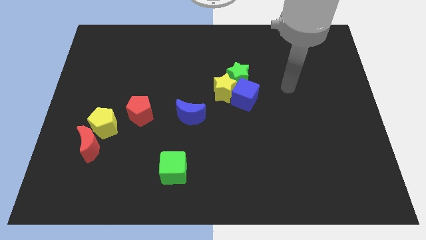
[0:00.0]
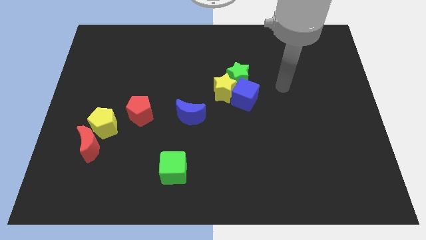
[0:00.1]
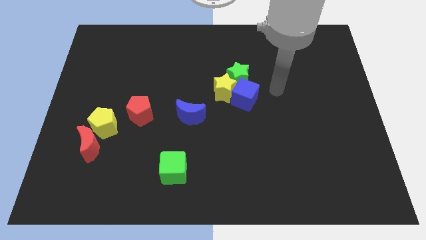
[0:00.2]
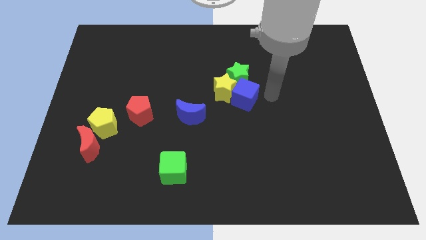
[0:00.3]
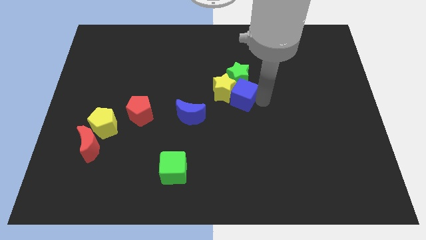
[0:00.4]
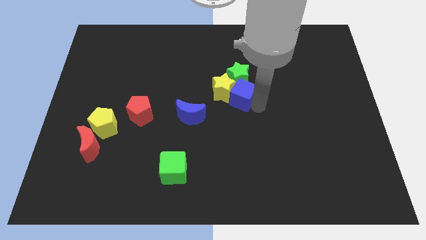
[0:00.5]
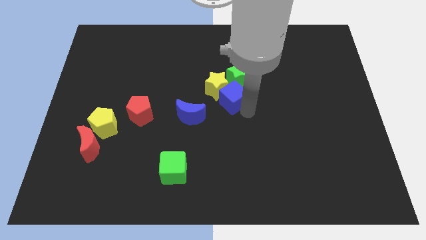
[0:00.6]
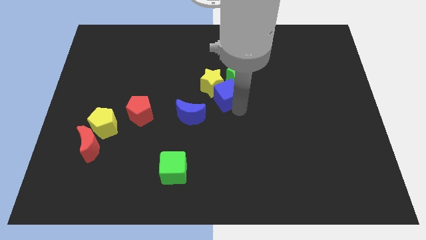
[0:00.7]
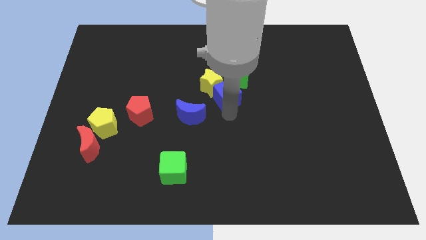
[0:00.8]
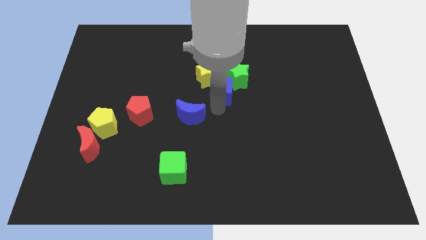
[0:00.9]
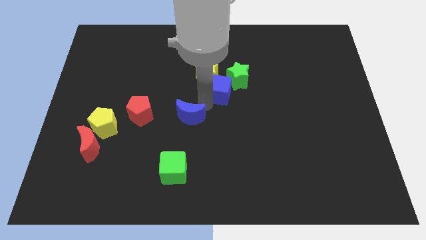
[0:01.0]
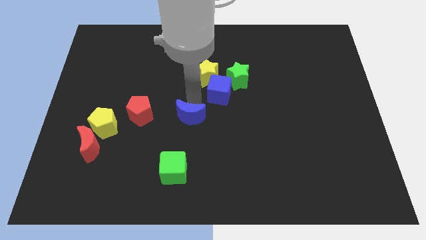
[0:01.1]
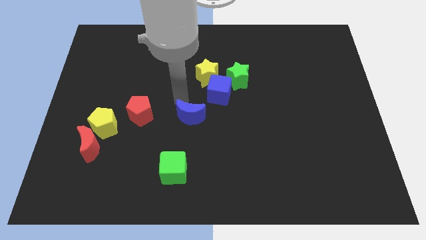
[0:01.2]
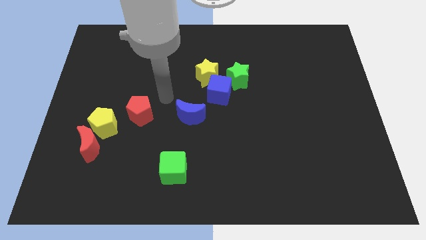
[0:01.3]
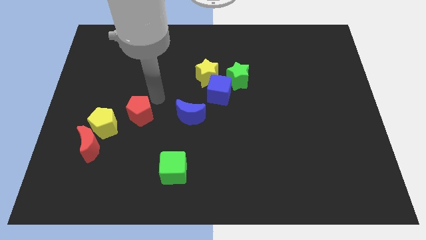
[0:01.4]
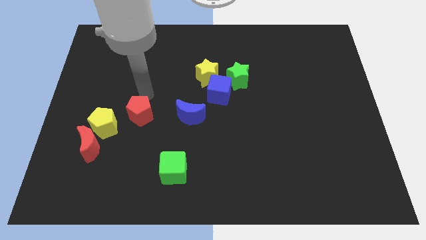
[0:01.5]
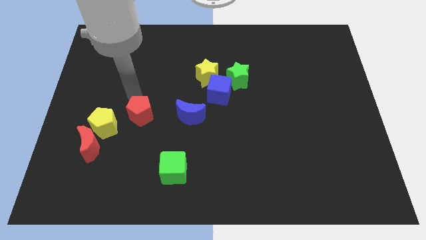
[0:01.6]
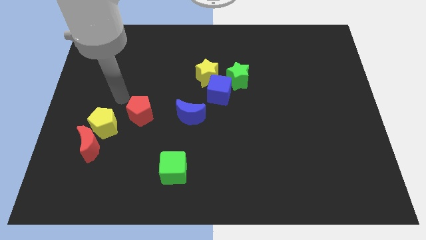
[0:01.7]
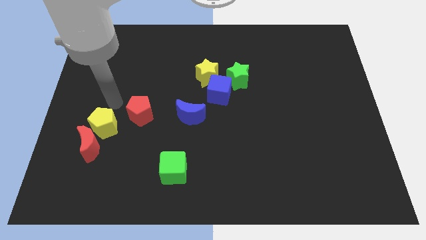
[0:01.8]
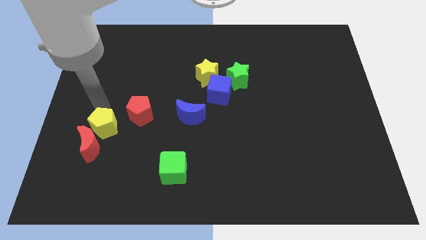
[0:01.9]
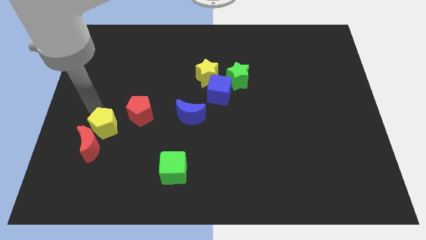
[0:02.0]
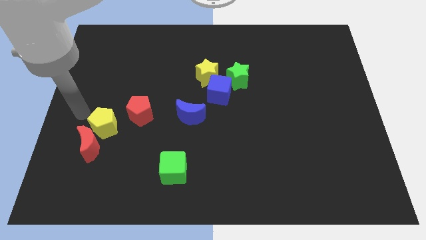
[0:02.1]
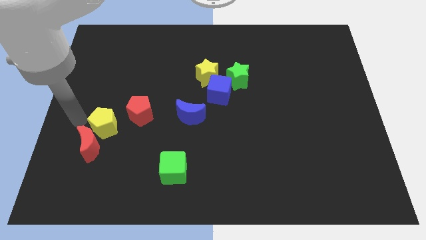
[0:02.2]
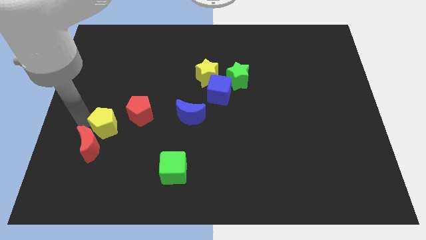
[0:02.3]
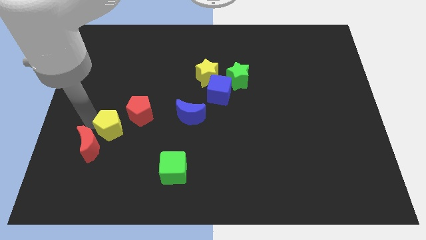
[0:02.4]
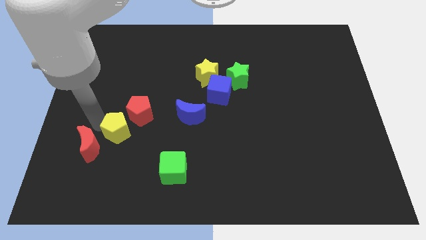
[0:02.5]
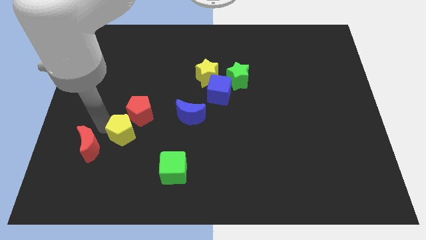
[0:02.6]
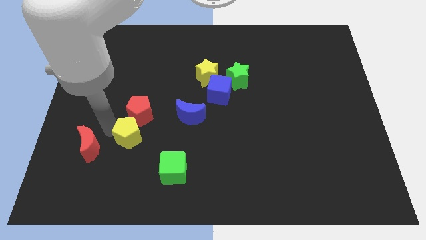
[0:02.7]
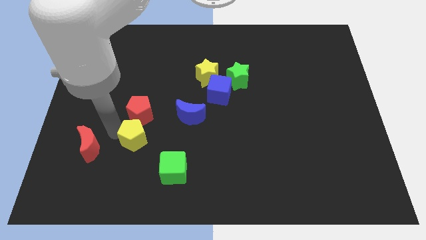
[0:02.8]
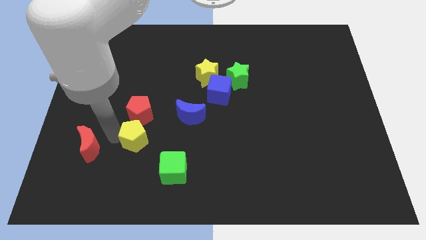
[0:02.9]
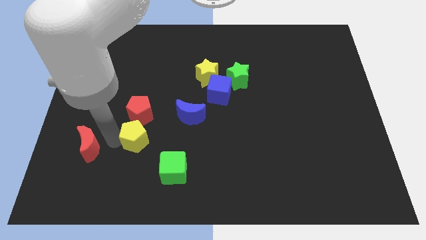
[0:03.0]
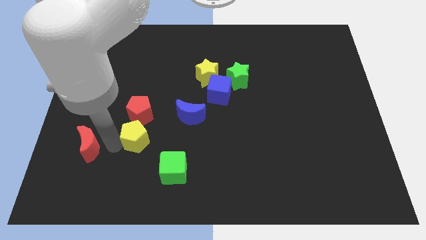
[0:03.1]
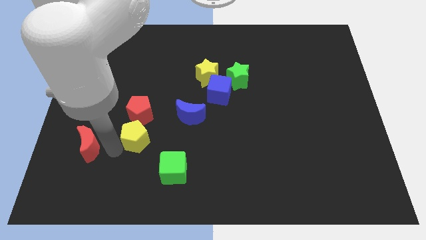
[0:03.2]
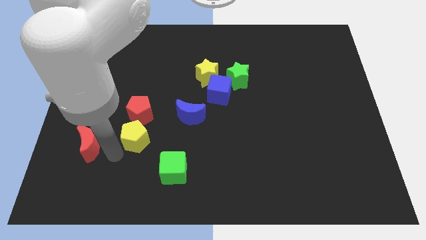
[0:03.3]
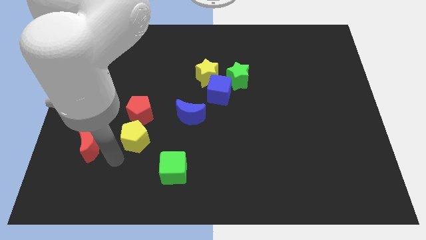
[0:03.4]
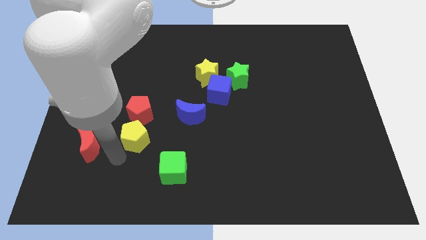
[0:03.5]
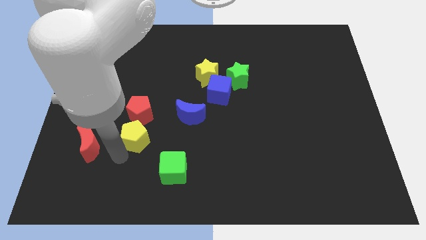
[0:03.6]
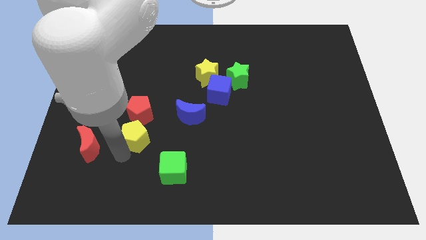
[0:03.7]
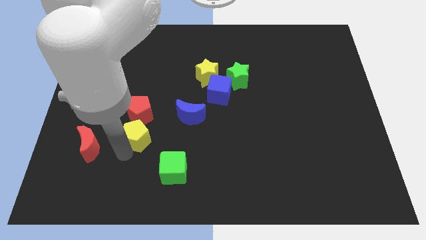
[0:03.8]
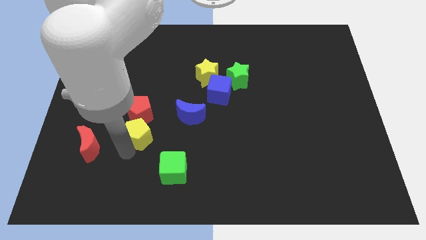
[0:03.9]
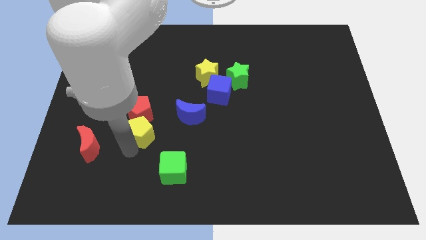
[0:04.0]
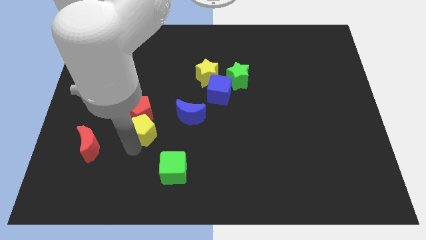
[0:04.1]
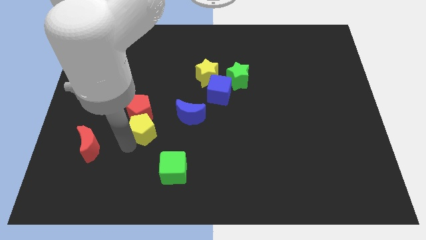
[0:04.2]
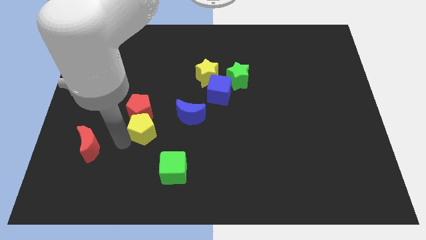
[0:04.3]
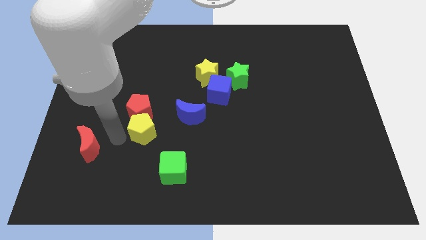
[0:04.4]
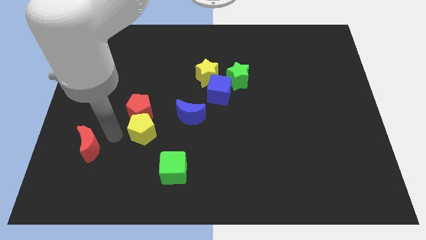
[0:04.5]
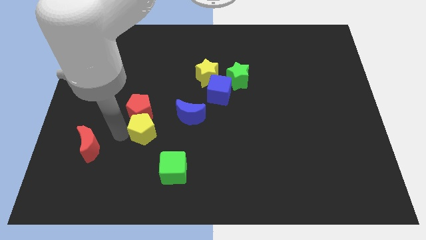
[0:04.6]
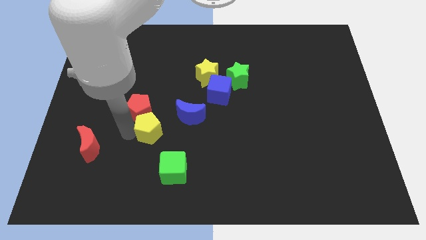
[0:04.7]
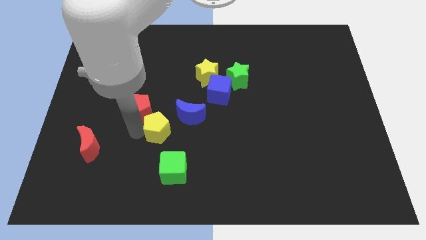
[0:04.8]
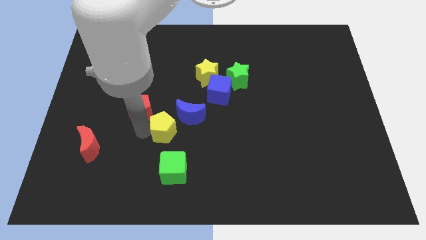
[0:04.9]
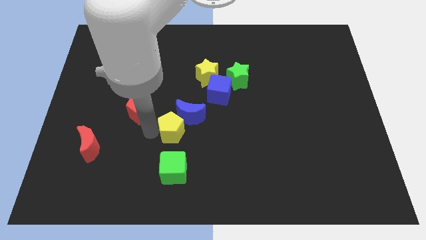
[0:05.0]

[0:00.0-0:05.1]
move the yellow pentagon towards the blue moon

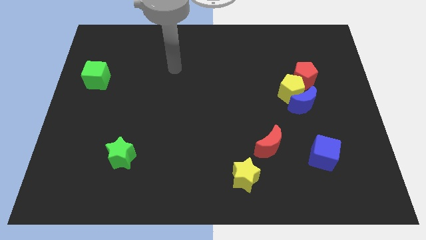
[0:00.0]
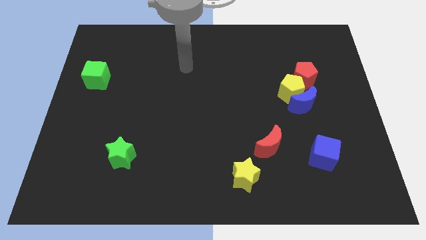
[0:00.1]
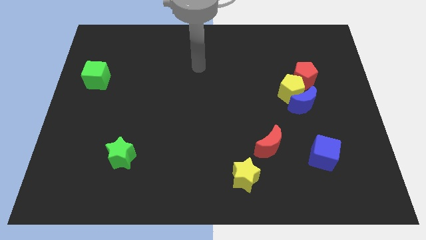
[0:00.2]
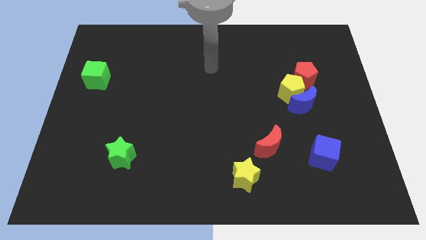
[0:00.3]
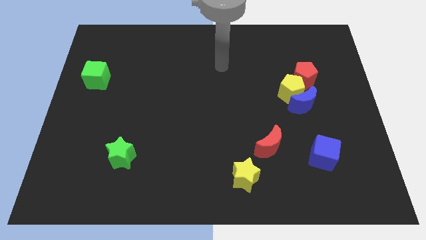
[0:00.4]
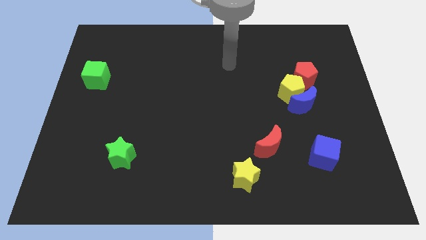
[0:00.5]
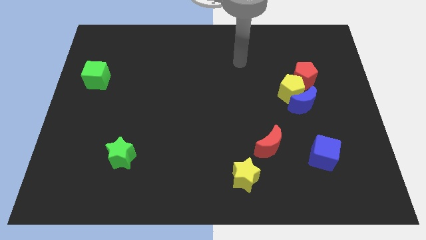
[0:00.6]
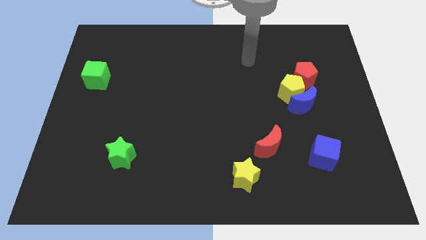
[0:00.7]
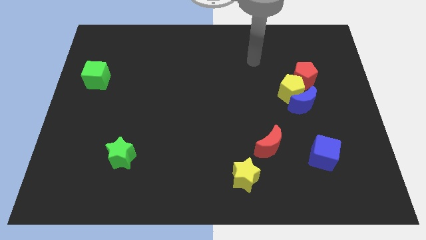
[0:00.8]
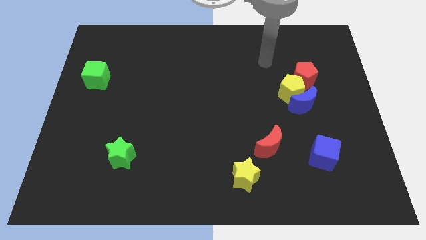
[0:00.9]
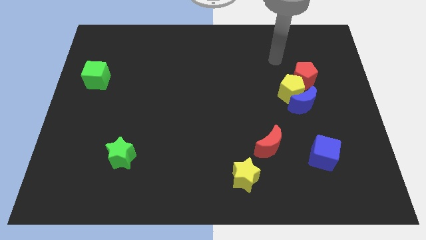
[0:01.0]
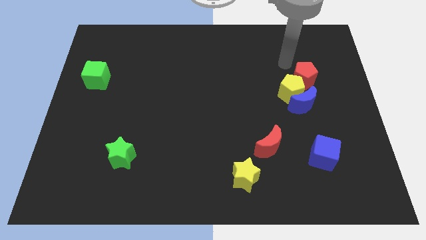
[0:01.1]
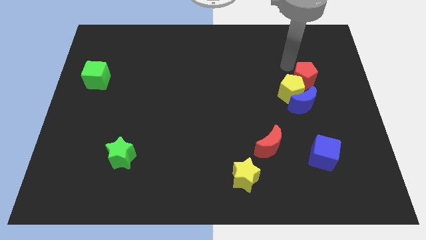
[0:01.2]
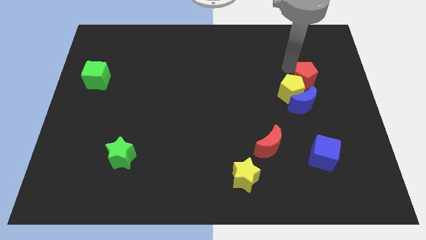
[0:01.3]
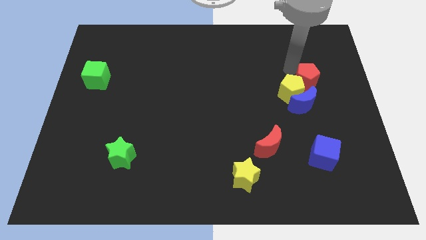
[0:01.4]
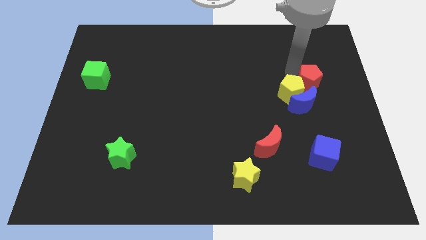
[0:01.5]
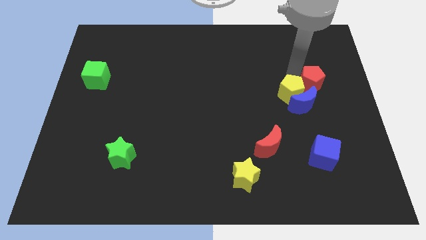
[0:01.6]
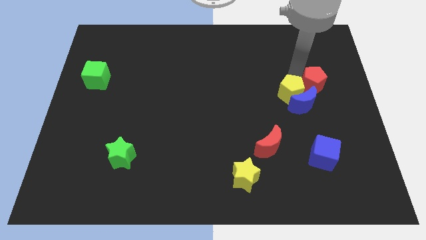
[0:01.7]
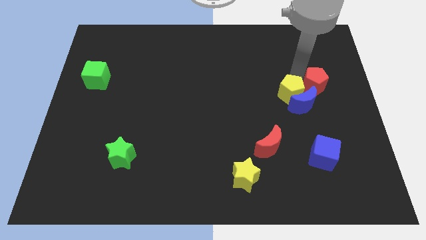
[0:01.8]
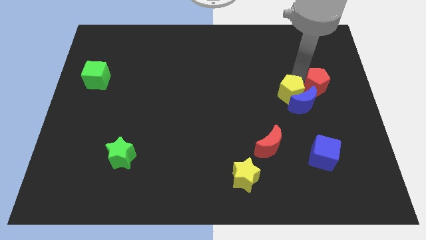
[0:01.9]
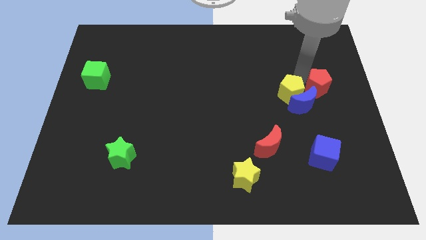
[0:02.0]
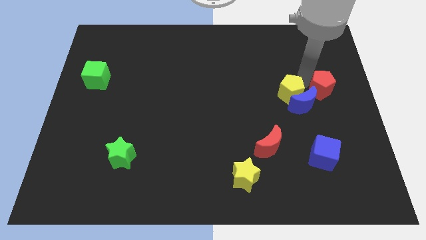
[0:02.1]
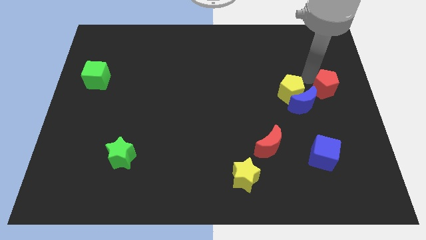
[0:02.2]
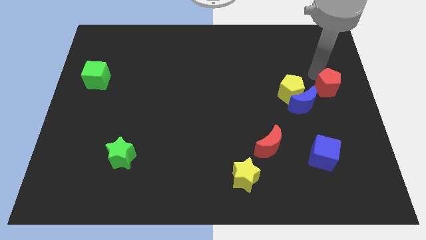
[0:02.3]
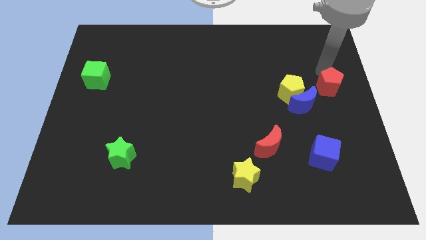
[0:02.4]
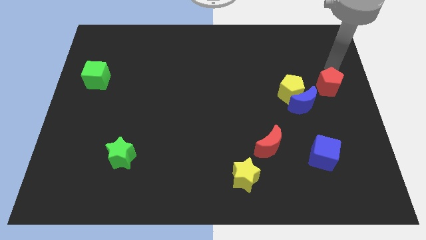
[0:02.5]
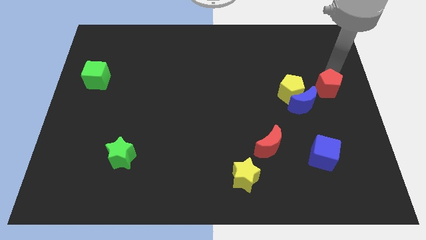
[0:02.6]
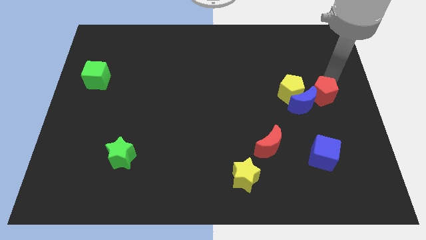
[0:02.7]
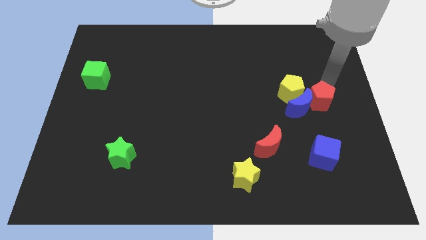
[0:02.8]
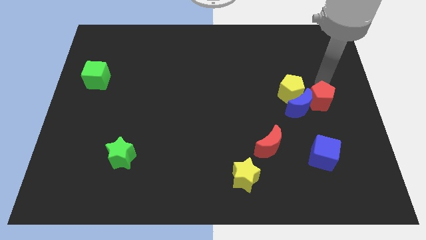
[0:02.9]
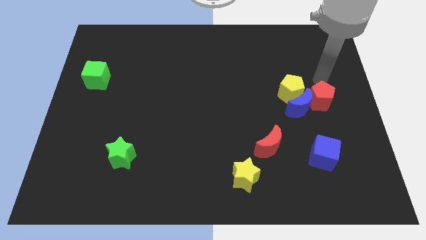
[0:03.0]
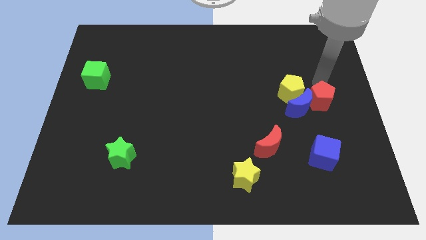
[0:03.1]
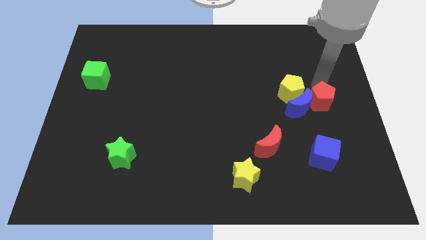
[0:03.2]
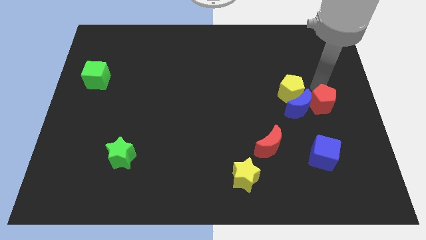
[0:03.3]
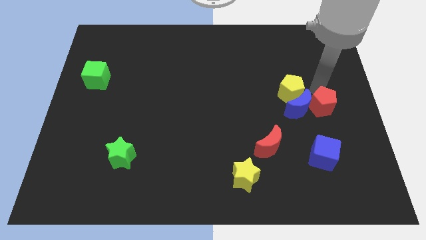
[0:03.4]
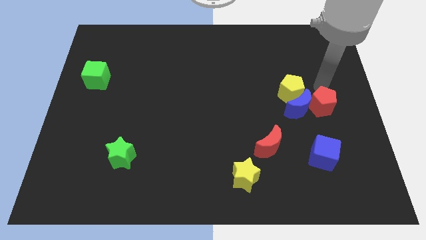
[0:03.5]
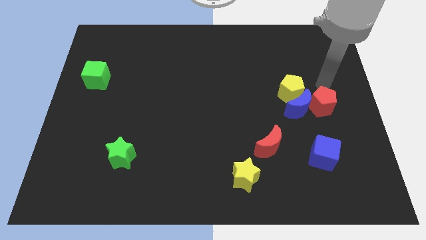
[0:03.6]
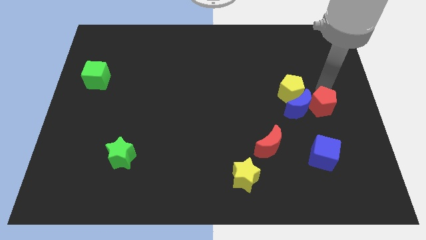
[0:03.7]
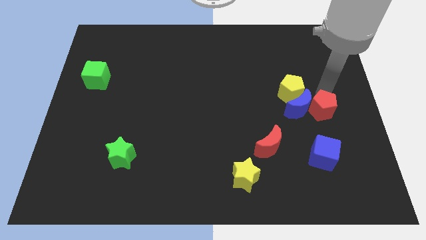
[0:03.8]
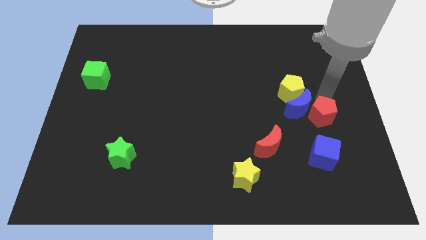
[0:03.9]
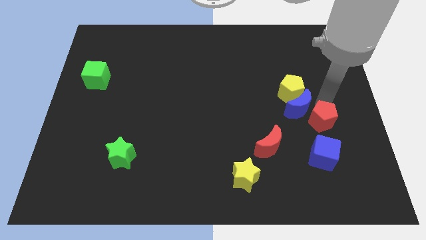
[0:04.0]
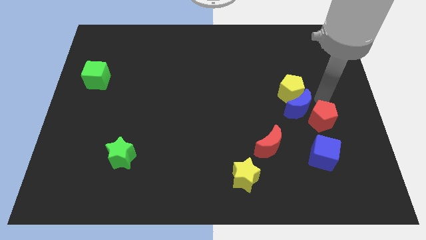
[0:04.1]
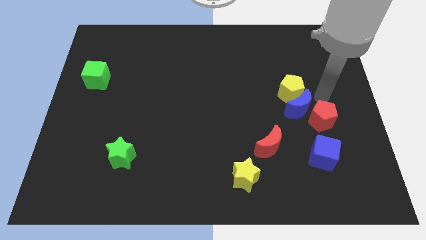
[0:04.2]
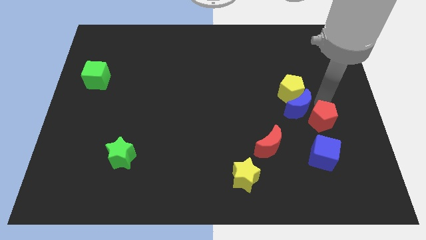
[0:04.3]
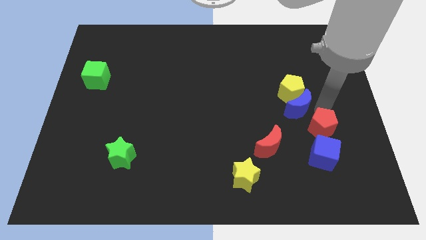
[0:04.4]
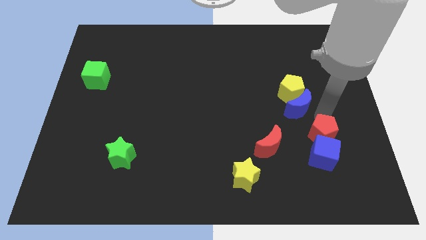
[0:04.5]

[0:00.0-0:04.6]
move the red pentagon next to the blue cube
